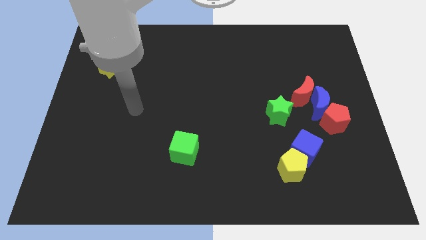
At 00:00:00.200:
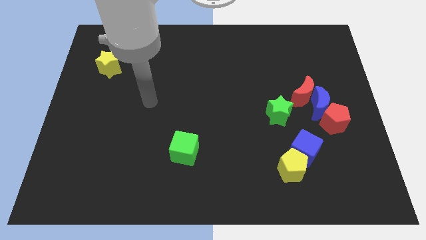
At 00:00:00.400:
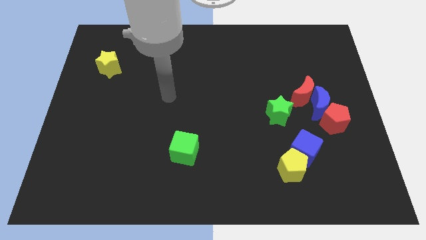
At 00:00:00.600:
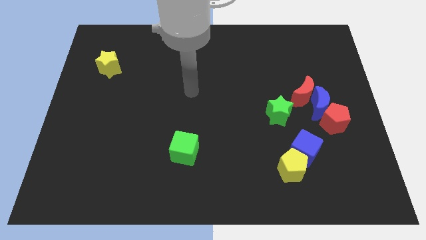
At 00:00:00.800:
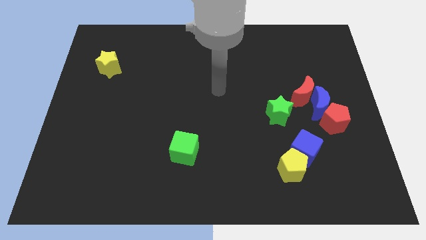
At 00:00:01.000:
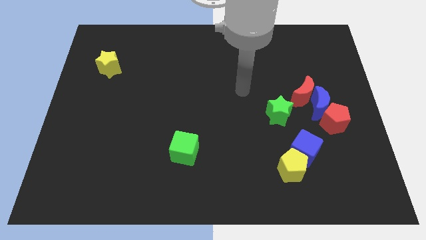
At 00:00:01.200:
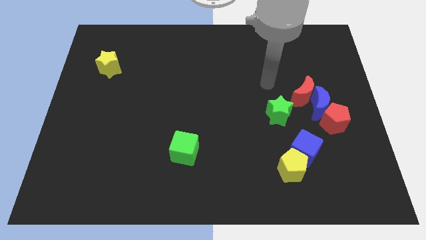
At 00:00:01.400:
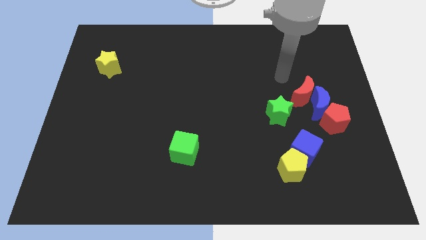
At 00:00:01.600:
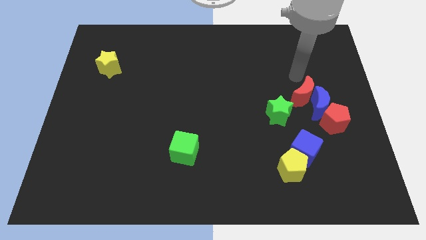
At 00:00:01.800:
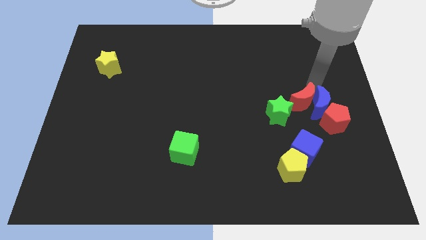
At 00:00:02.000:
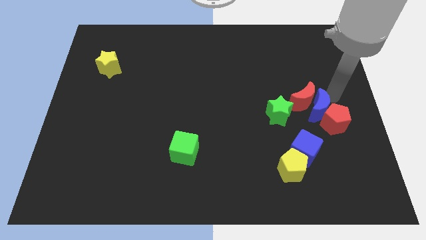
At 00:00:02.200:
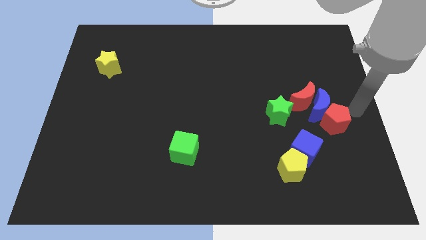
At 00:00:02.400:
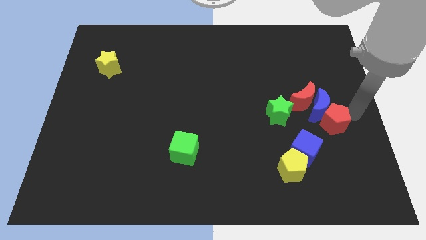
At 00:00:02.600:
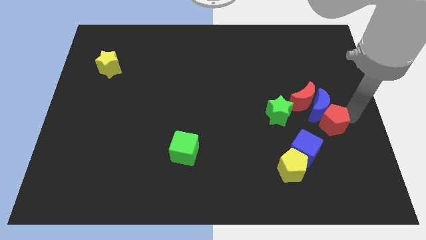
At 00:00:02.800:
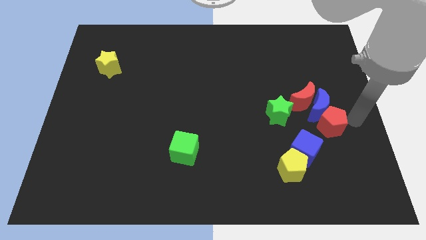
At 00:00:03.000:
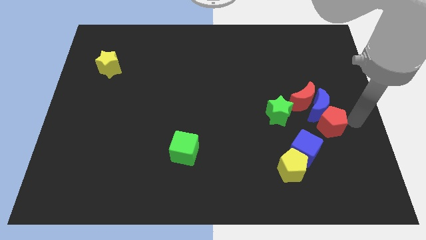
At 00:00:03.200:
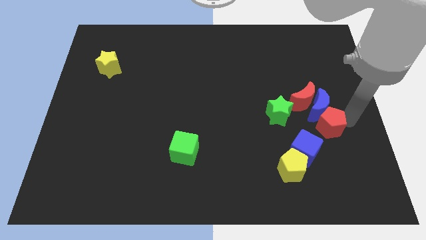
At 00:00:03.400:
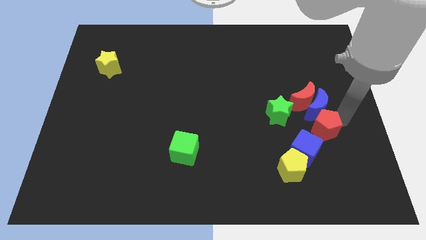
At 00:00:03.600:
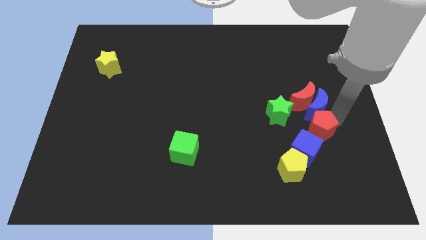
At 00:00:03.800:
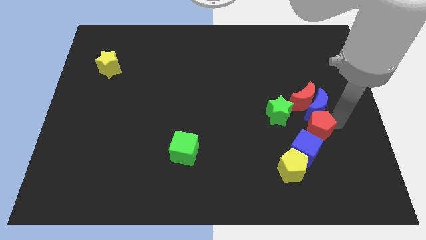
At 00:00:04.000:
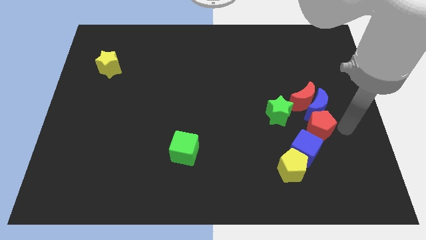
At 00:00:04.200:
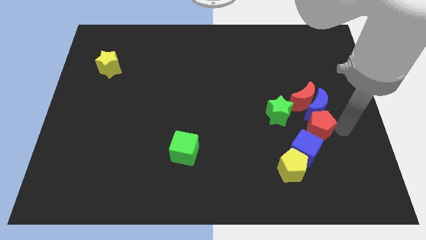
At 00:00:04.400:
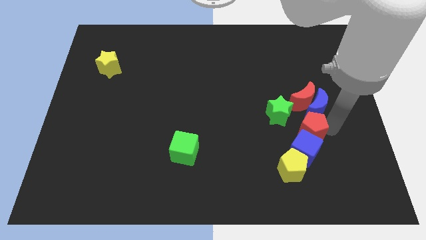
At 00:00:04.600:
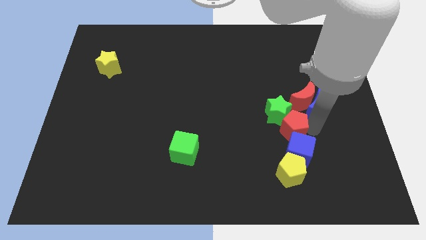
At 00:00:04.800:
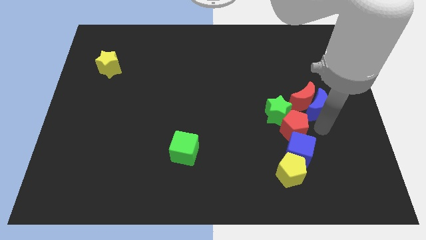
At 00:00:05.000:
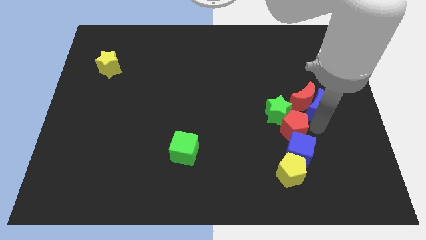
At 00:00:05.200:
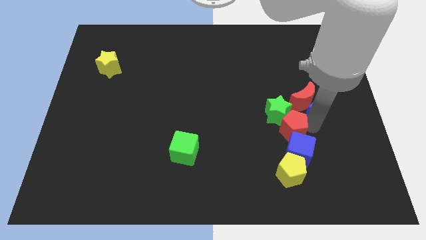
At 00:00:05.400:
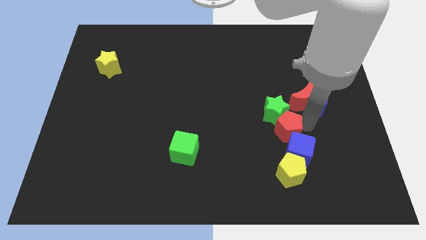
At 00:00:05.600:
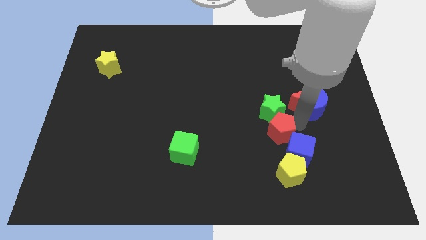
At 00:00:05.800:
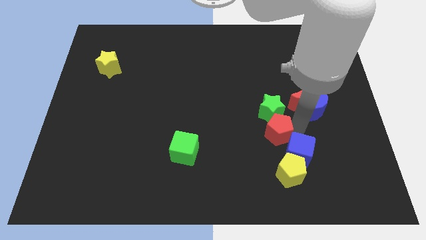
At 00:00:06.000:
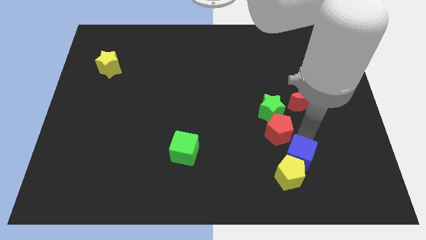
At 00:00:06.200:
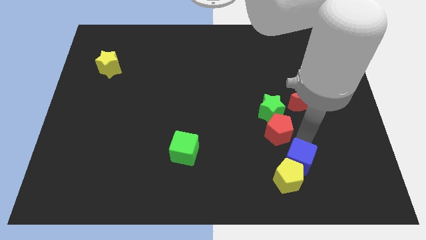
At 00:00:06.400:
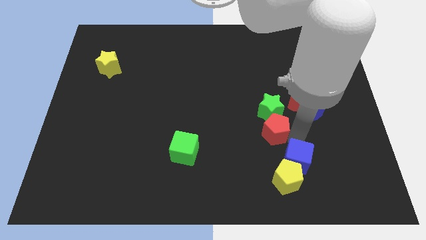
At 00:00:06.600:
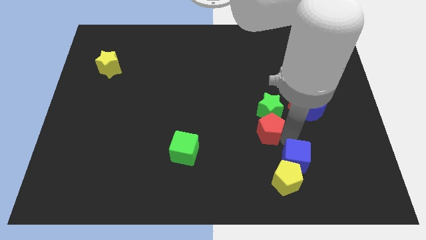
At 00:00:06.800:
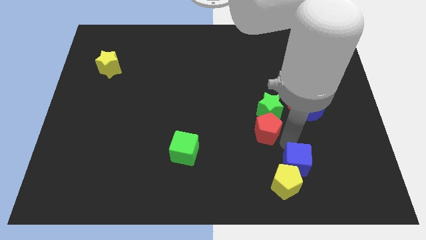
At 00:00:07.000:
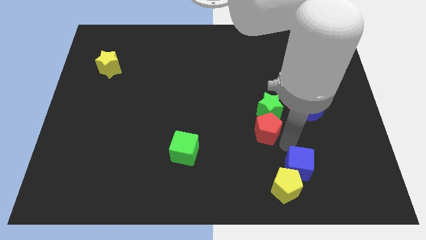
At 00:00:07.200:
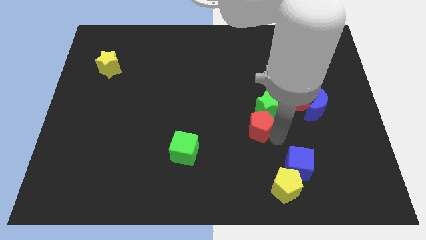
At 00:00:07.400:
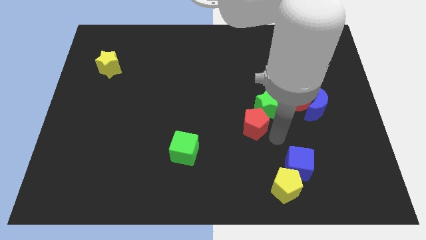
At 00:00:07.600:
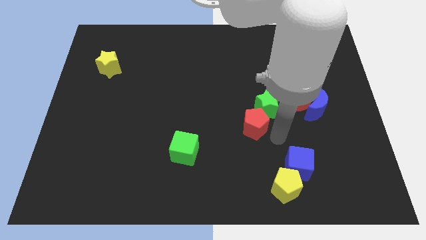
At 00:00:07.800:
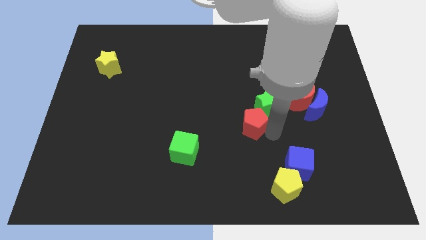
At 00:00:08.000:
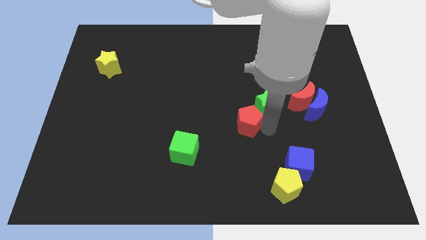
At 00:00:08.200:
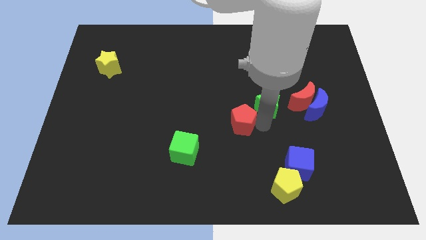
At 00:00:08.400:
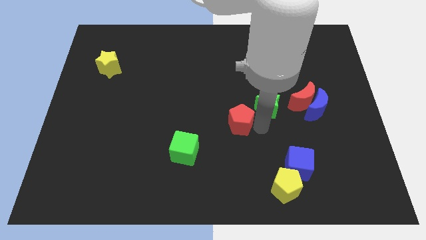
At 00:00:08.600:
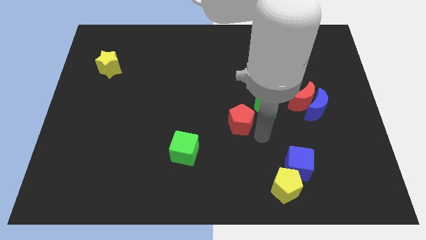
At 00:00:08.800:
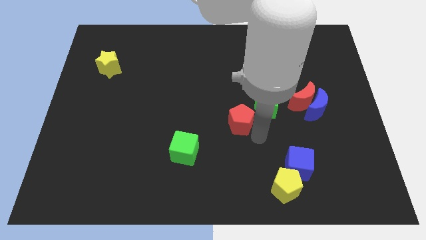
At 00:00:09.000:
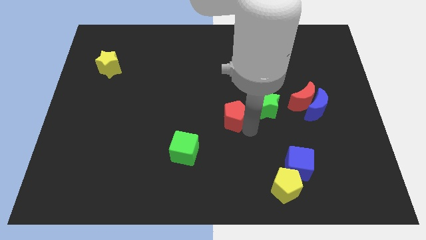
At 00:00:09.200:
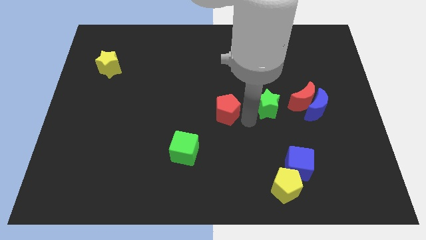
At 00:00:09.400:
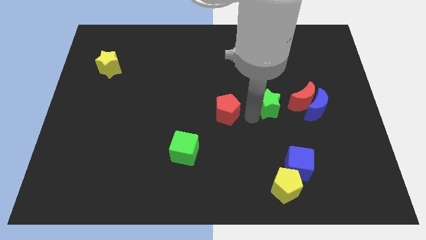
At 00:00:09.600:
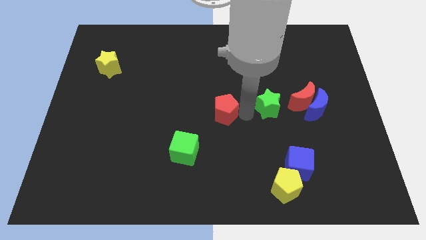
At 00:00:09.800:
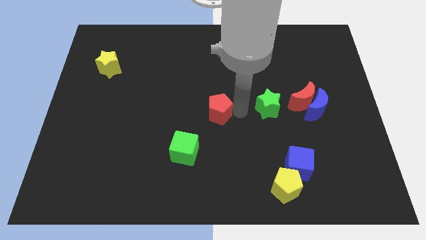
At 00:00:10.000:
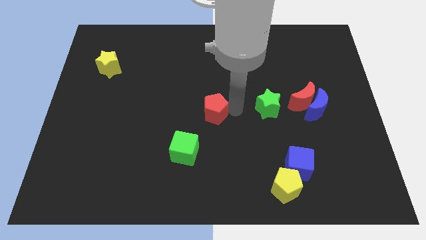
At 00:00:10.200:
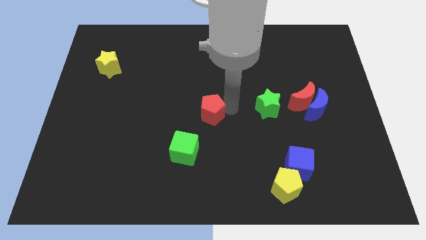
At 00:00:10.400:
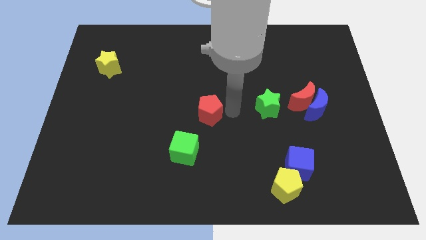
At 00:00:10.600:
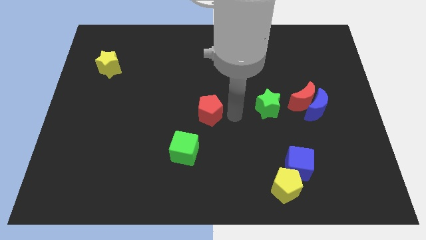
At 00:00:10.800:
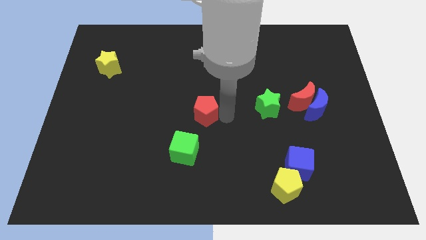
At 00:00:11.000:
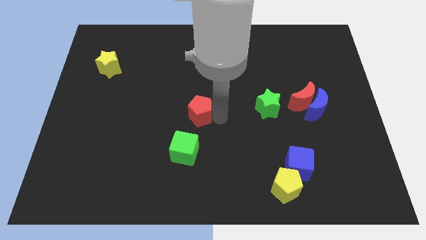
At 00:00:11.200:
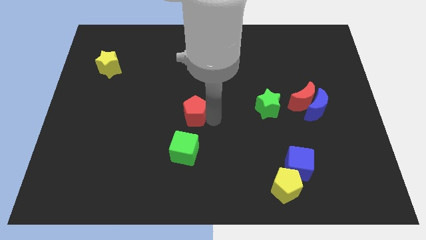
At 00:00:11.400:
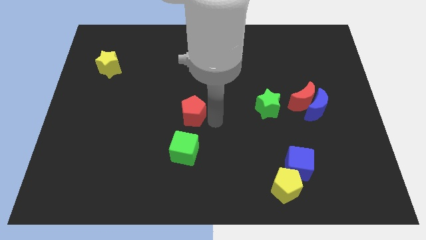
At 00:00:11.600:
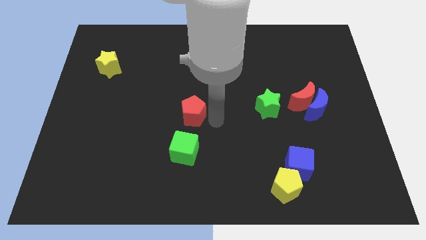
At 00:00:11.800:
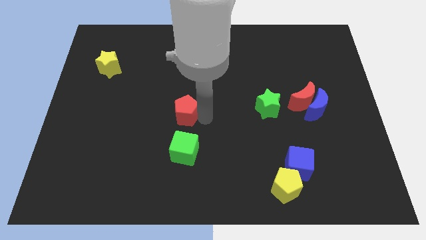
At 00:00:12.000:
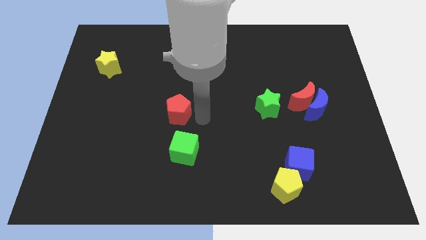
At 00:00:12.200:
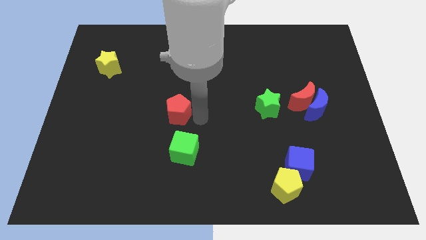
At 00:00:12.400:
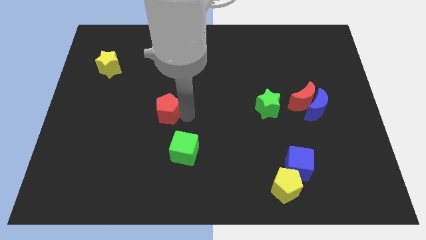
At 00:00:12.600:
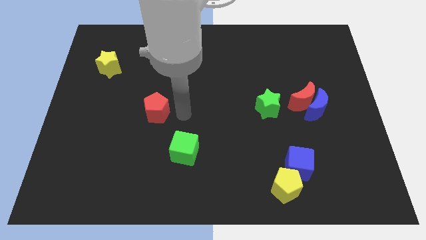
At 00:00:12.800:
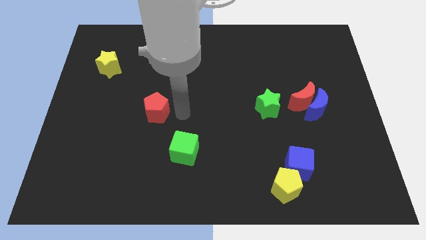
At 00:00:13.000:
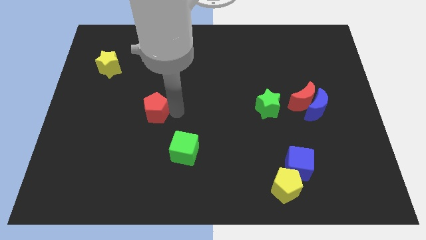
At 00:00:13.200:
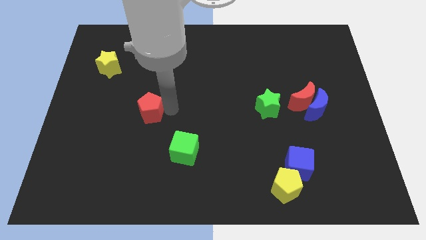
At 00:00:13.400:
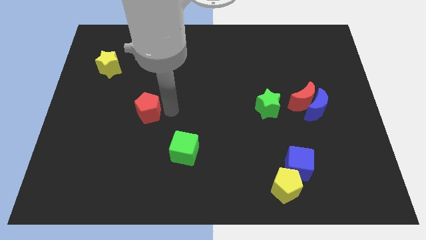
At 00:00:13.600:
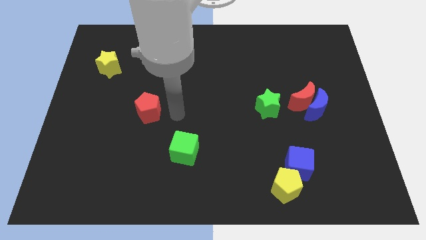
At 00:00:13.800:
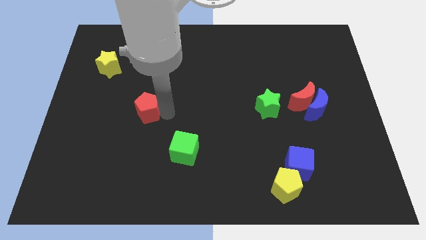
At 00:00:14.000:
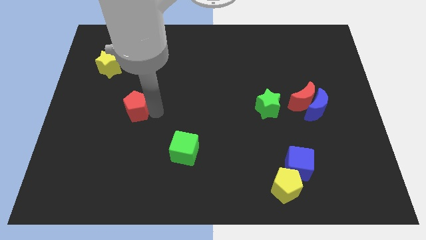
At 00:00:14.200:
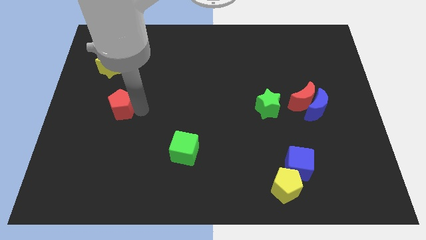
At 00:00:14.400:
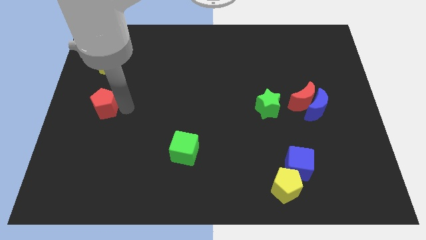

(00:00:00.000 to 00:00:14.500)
put the red pentagon to the left side
